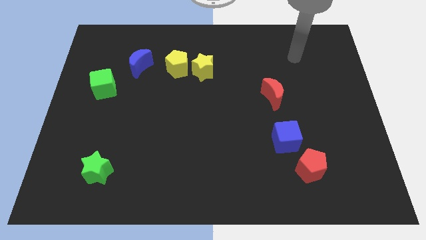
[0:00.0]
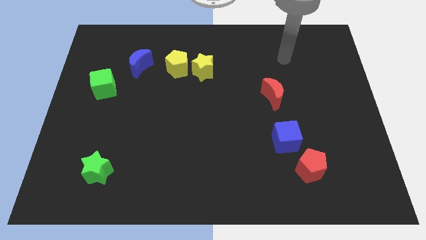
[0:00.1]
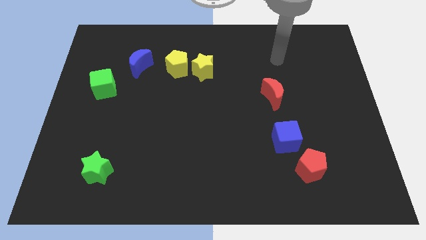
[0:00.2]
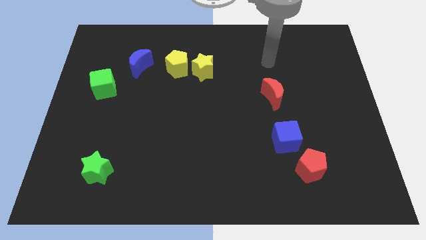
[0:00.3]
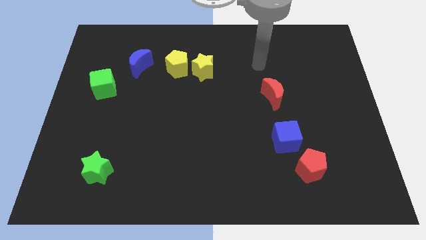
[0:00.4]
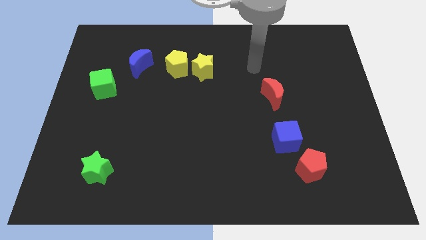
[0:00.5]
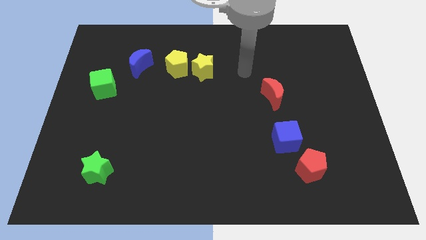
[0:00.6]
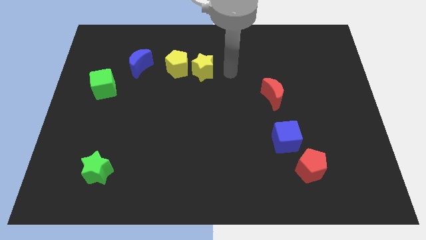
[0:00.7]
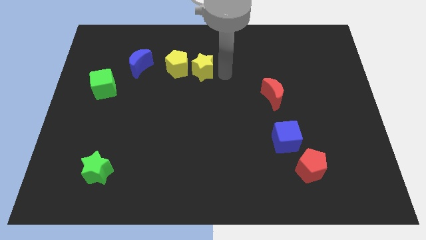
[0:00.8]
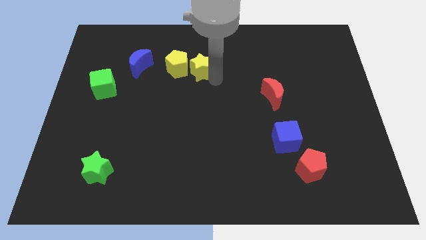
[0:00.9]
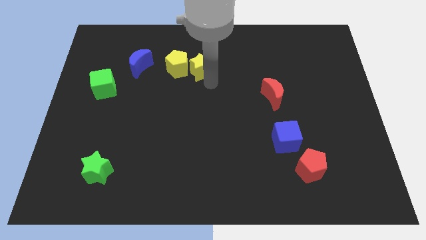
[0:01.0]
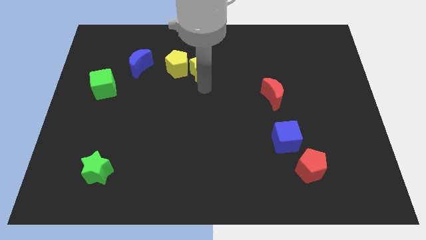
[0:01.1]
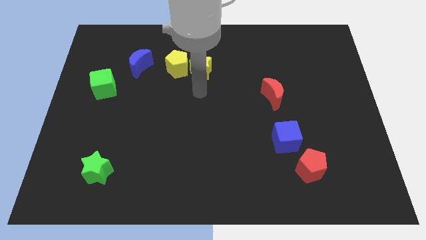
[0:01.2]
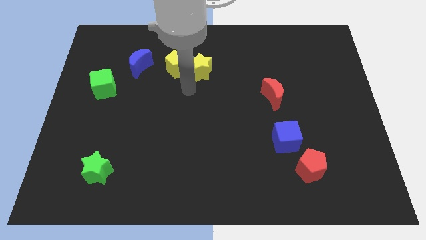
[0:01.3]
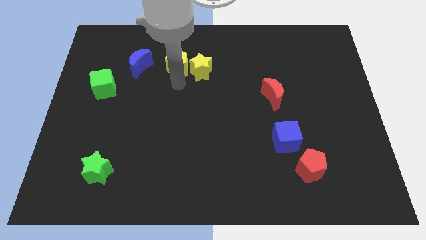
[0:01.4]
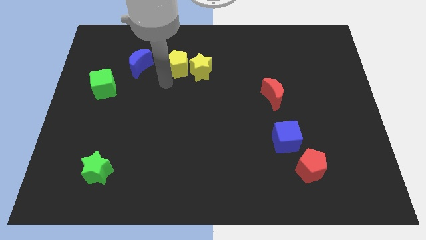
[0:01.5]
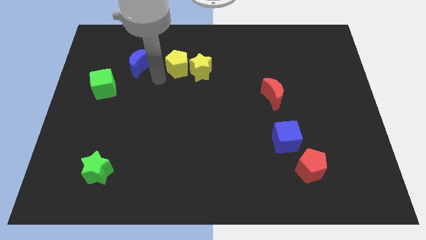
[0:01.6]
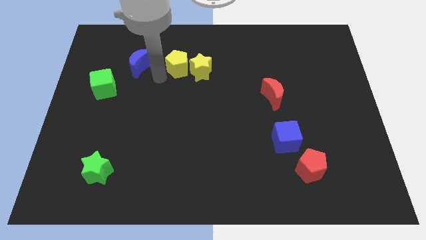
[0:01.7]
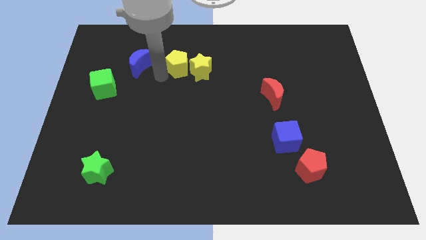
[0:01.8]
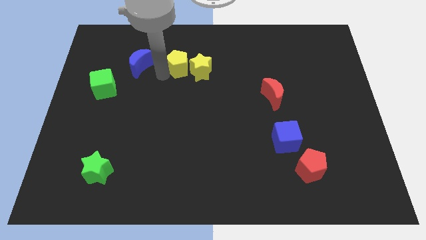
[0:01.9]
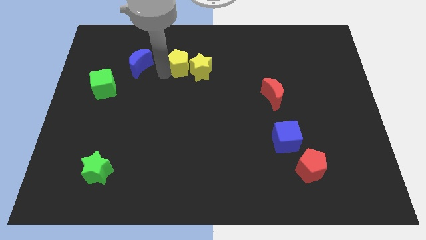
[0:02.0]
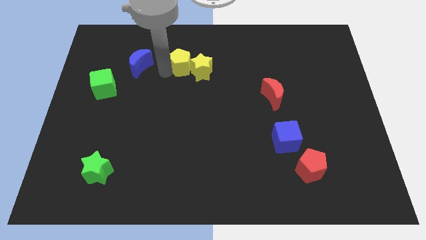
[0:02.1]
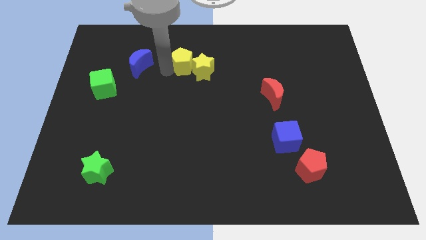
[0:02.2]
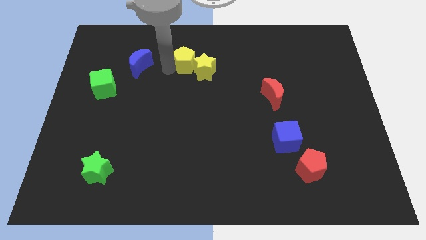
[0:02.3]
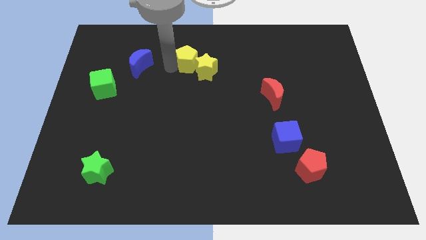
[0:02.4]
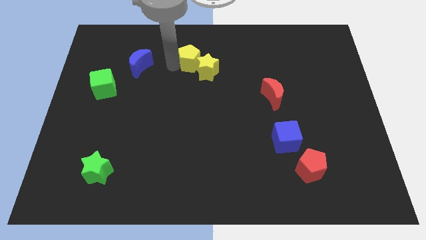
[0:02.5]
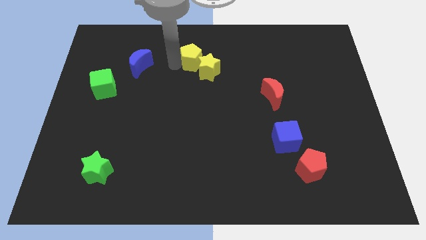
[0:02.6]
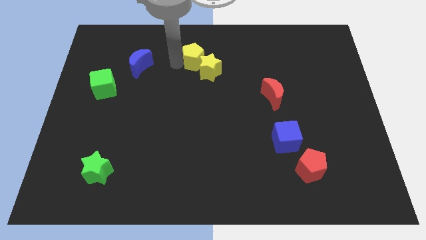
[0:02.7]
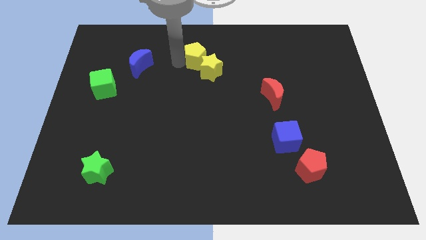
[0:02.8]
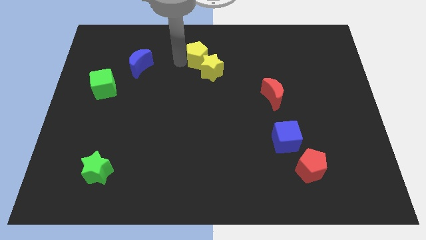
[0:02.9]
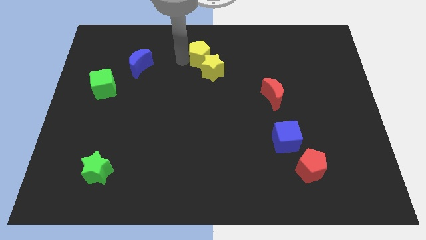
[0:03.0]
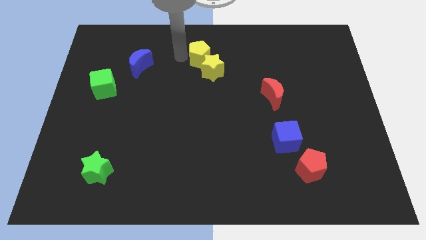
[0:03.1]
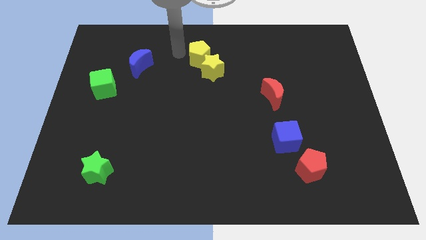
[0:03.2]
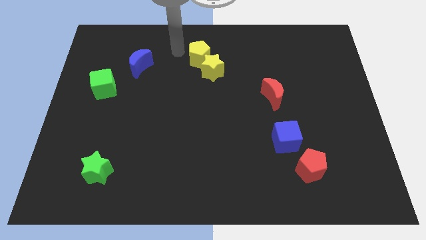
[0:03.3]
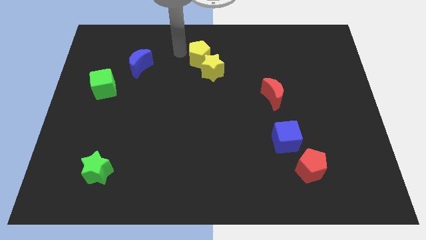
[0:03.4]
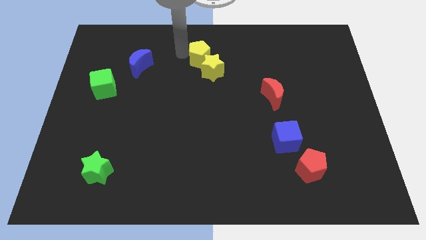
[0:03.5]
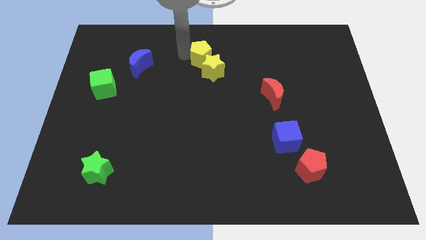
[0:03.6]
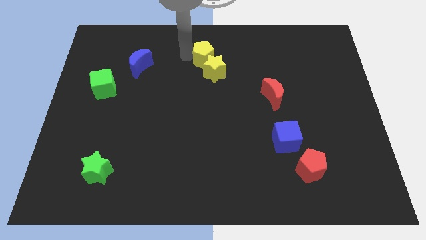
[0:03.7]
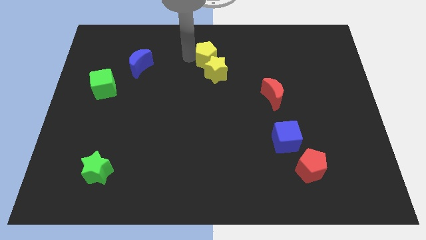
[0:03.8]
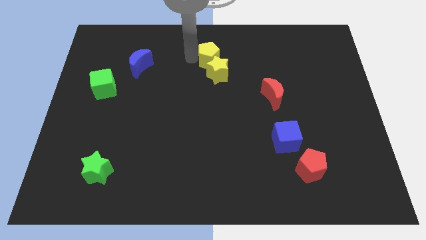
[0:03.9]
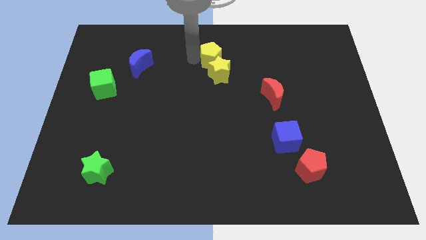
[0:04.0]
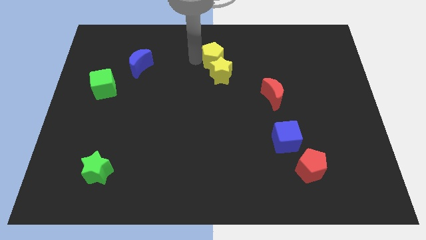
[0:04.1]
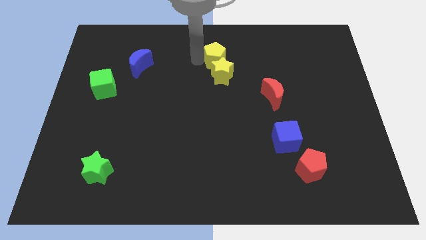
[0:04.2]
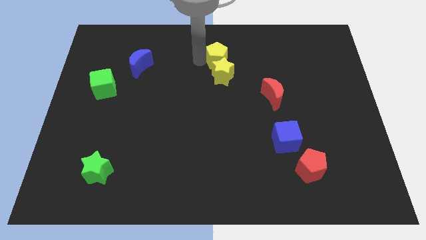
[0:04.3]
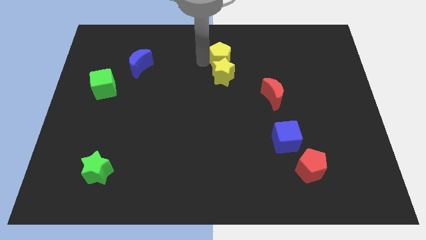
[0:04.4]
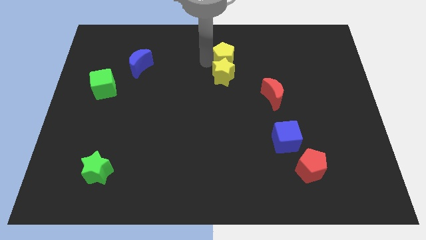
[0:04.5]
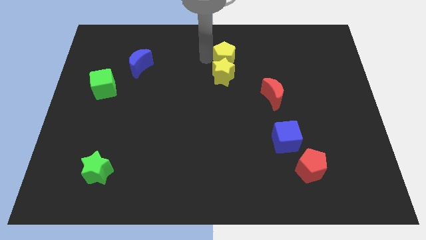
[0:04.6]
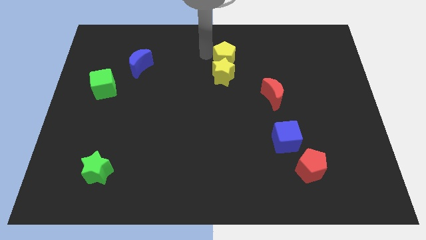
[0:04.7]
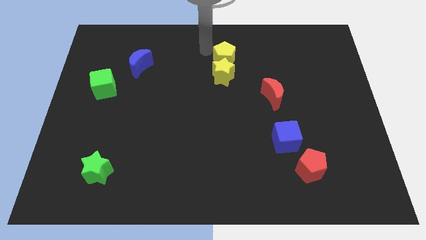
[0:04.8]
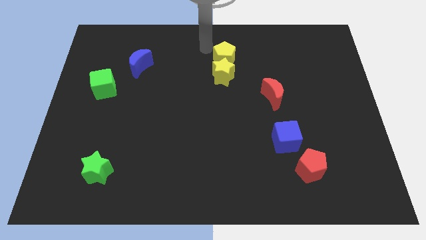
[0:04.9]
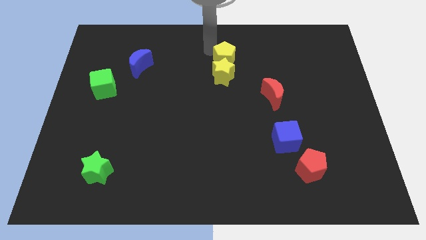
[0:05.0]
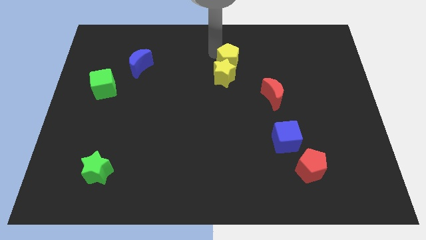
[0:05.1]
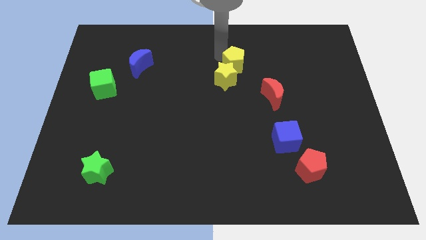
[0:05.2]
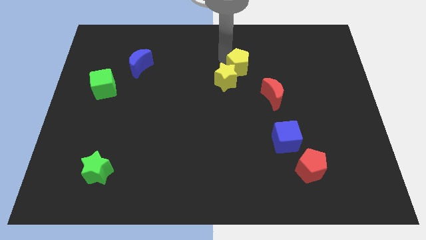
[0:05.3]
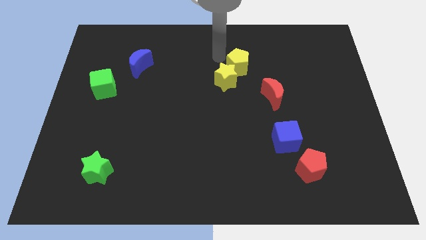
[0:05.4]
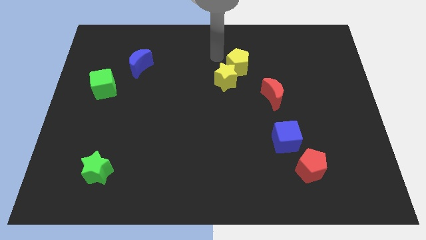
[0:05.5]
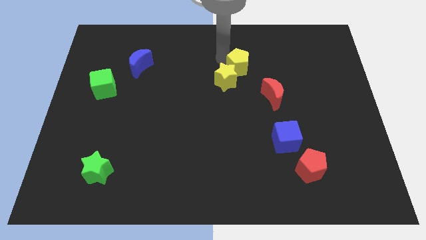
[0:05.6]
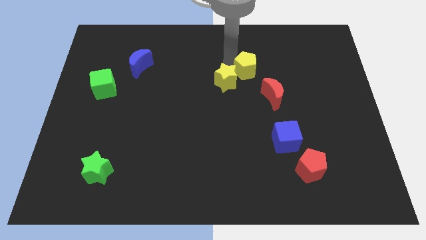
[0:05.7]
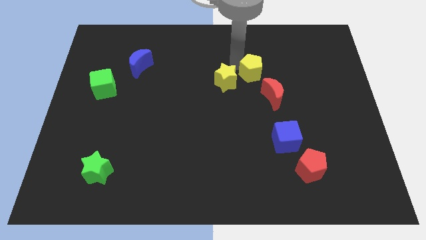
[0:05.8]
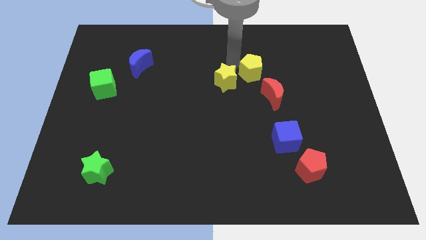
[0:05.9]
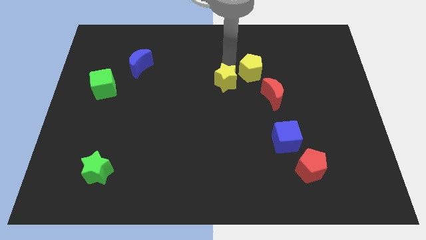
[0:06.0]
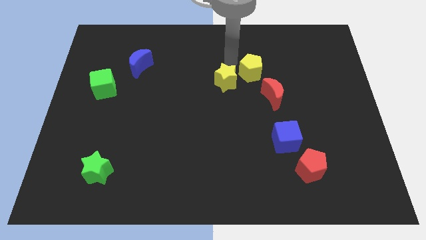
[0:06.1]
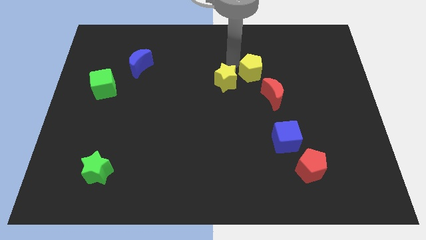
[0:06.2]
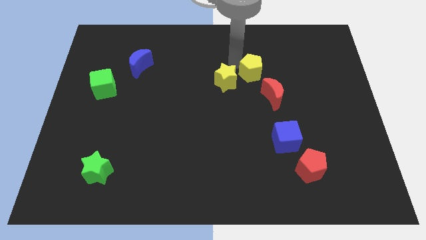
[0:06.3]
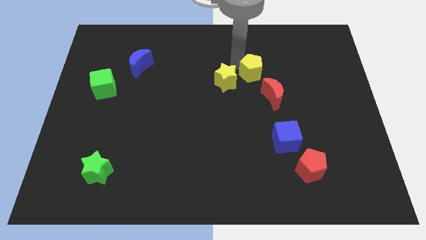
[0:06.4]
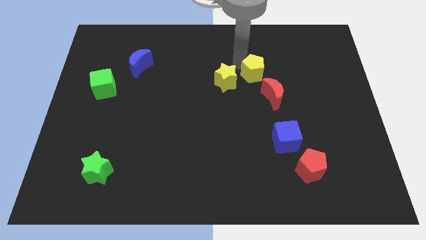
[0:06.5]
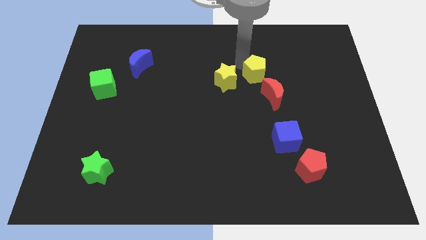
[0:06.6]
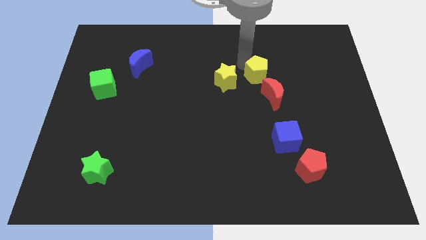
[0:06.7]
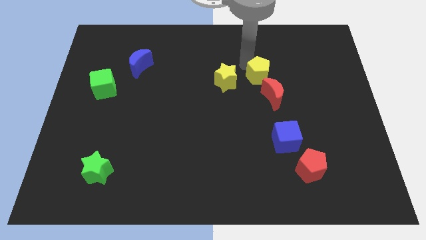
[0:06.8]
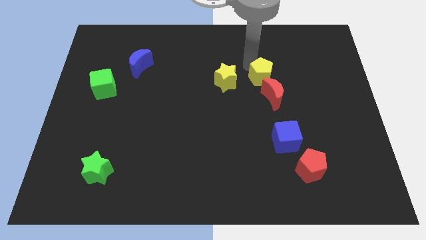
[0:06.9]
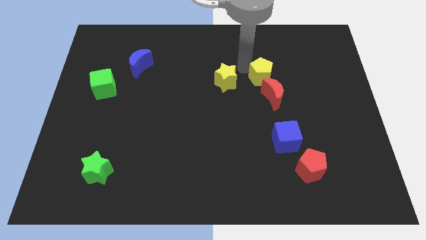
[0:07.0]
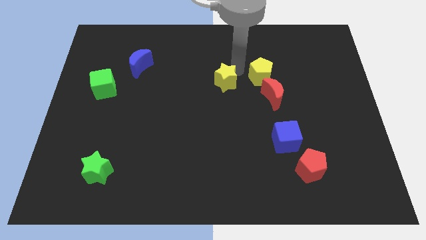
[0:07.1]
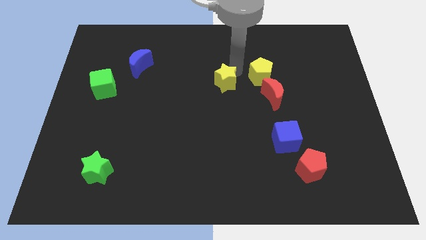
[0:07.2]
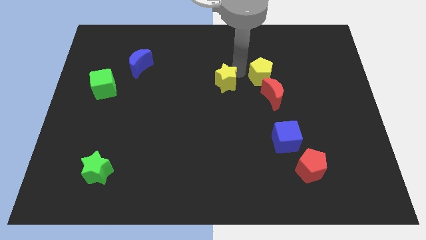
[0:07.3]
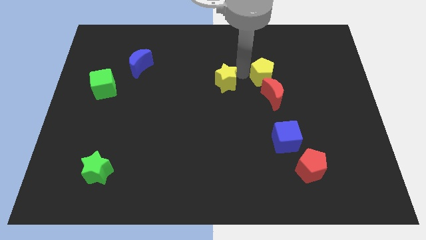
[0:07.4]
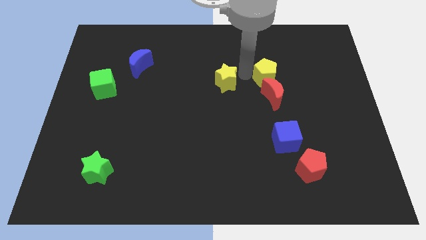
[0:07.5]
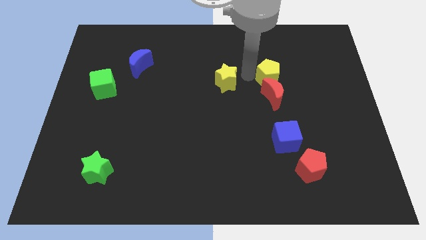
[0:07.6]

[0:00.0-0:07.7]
put the yellow pentagon to the top right of the red moon

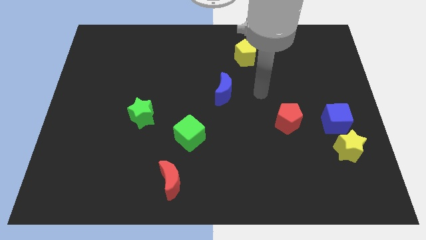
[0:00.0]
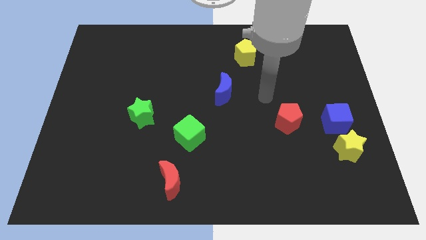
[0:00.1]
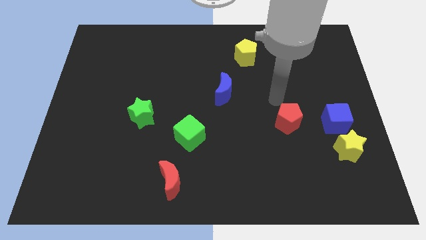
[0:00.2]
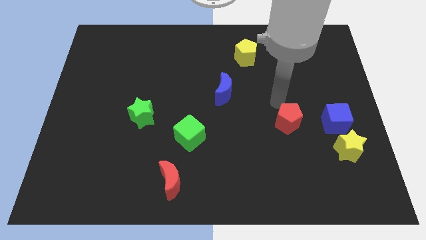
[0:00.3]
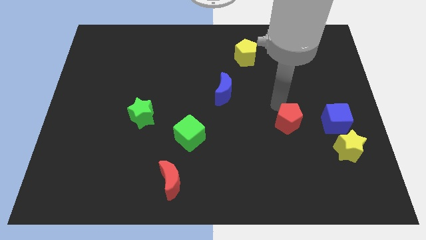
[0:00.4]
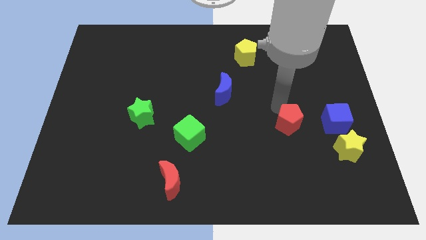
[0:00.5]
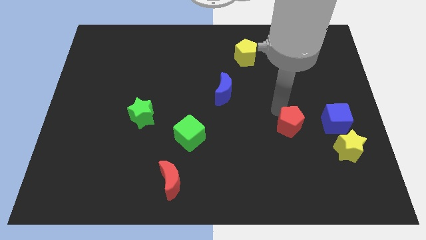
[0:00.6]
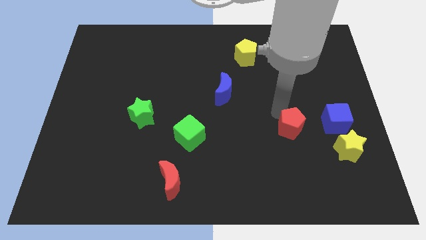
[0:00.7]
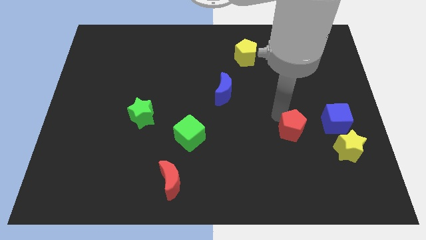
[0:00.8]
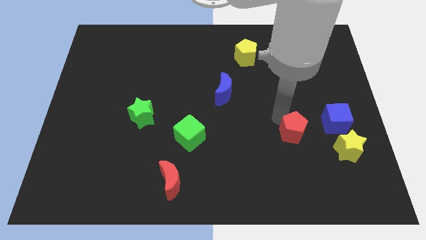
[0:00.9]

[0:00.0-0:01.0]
push the red pentagon just left of the yellow star
